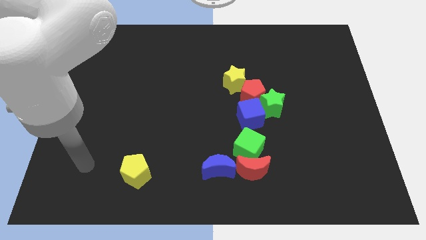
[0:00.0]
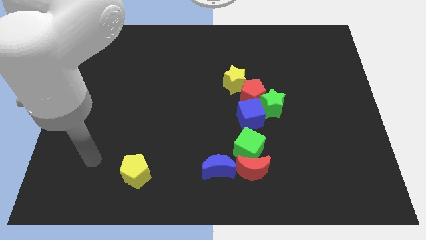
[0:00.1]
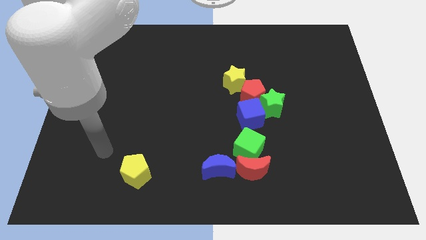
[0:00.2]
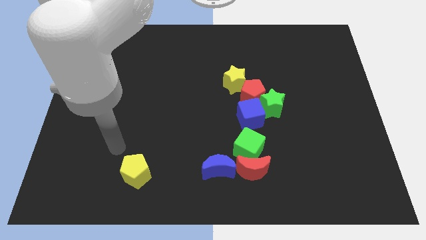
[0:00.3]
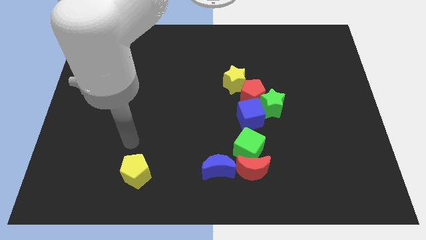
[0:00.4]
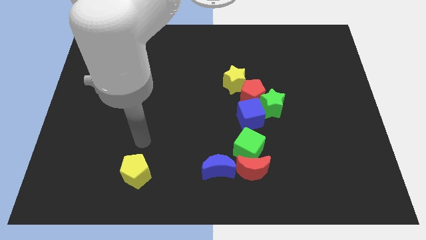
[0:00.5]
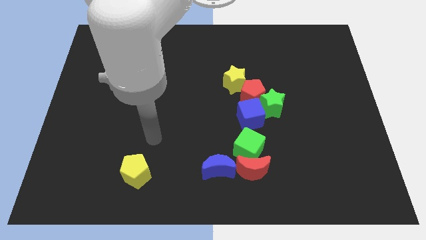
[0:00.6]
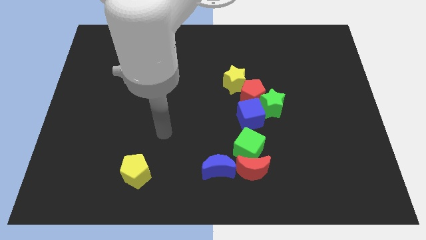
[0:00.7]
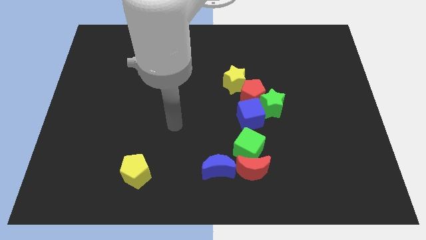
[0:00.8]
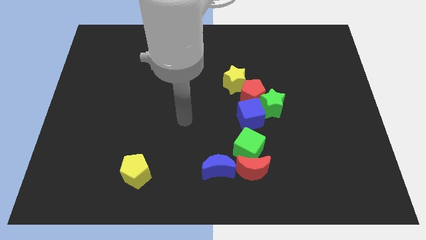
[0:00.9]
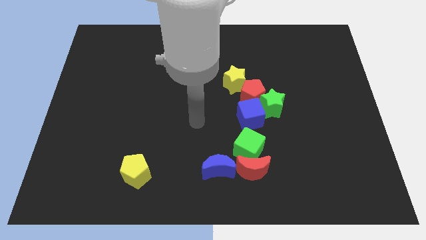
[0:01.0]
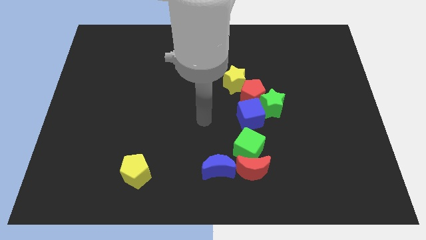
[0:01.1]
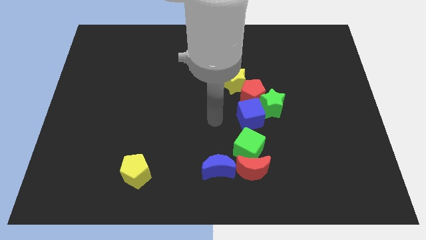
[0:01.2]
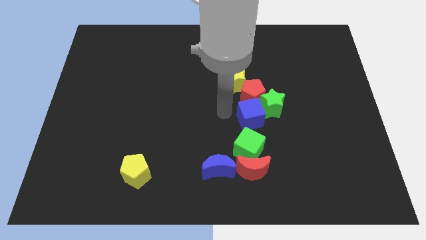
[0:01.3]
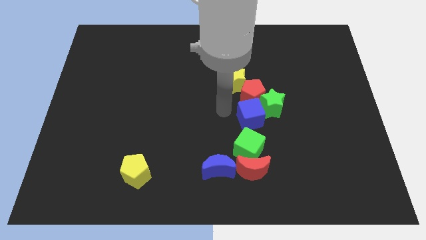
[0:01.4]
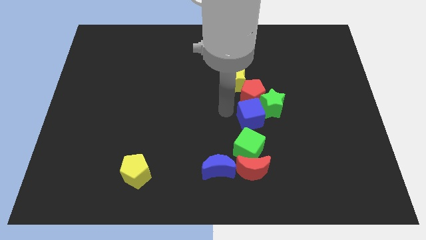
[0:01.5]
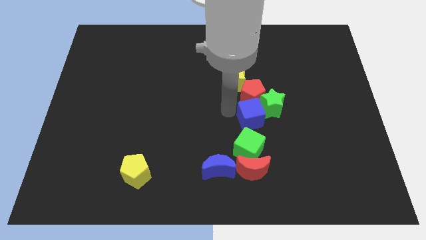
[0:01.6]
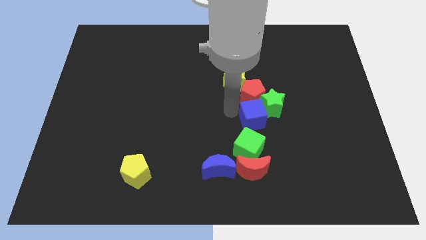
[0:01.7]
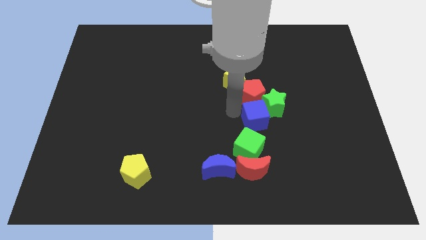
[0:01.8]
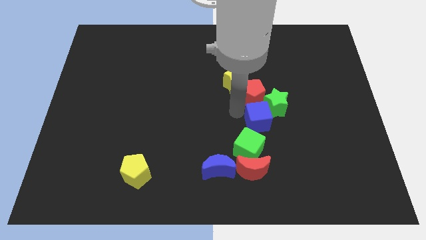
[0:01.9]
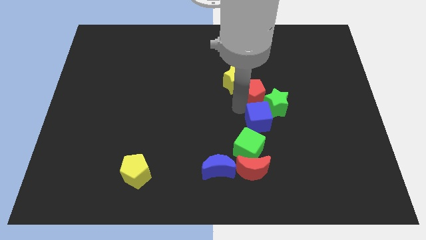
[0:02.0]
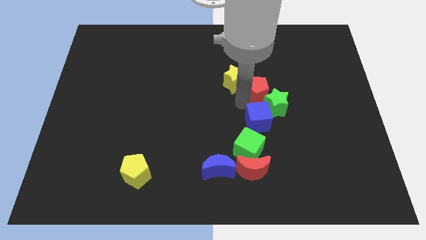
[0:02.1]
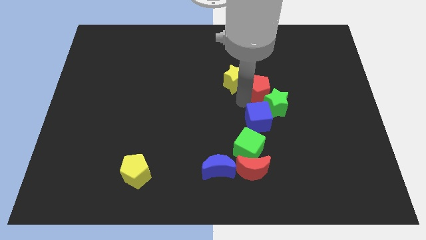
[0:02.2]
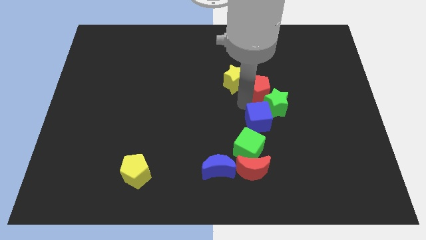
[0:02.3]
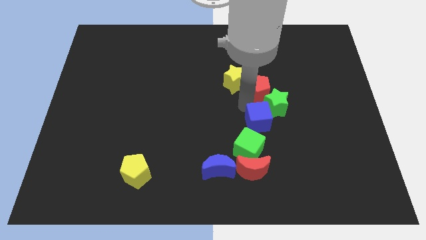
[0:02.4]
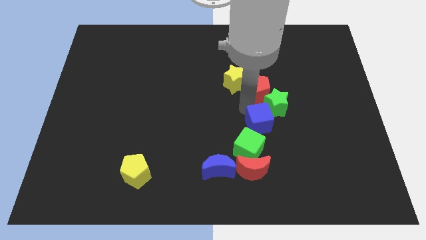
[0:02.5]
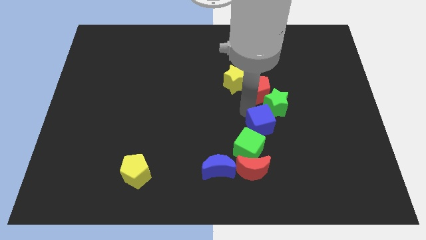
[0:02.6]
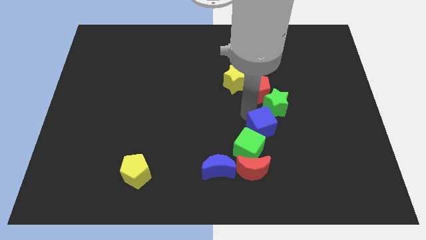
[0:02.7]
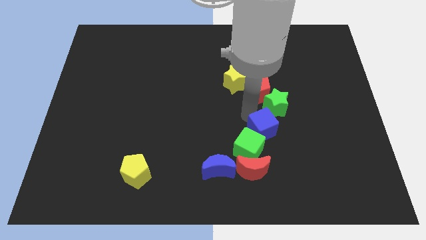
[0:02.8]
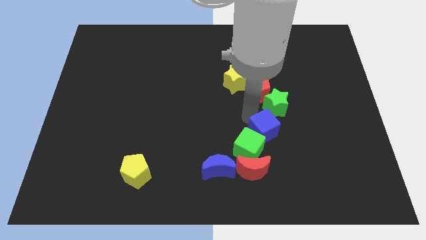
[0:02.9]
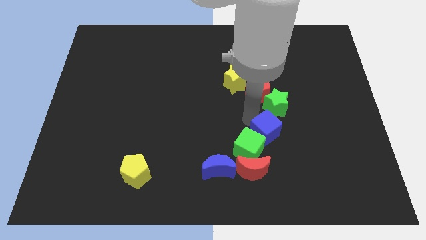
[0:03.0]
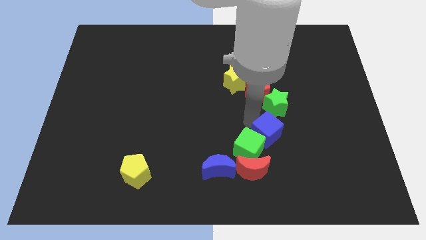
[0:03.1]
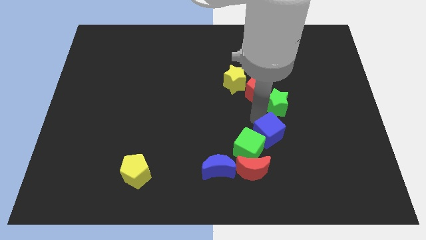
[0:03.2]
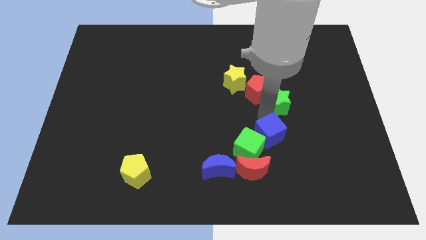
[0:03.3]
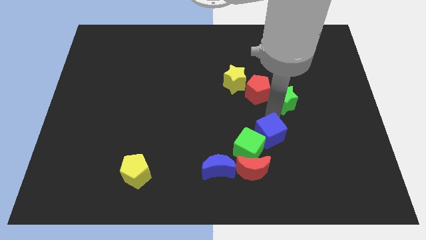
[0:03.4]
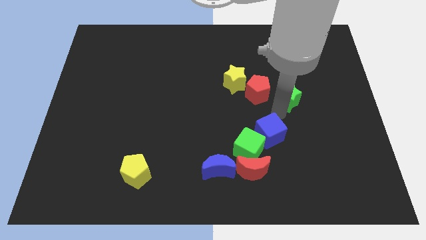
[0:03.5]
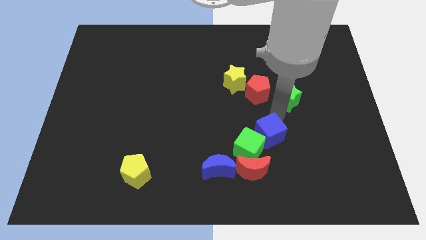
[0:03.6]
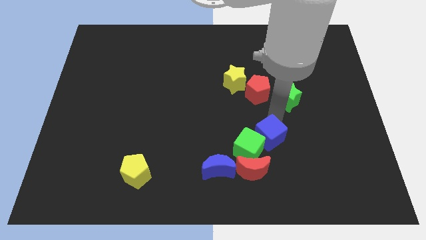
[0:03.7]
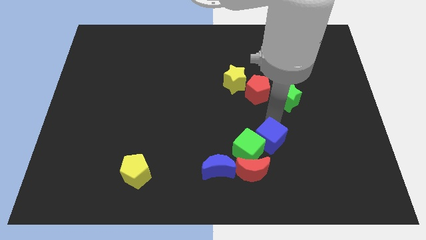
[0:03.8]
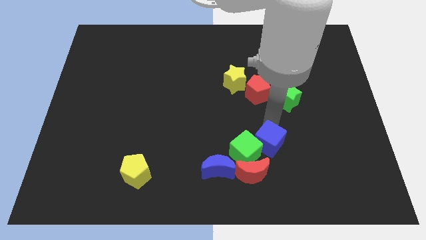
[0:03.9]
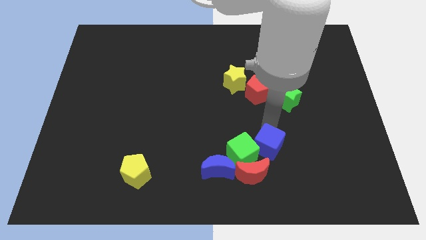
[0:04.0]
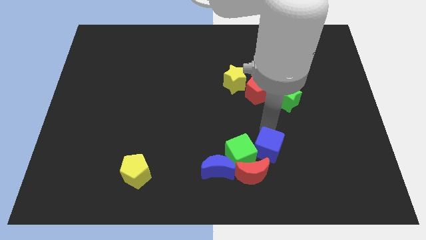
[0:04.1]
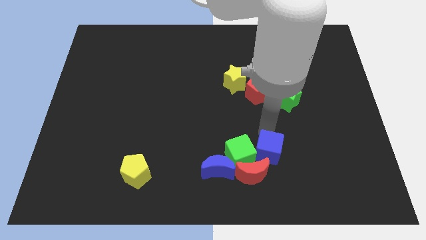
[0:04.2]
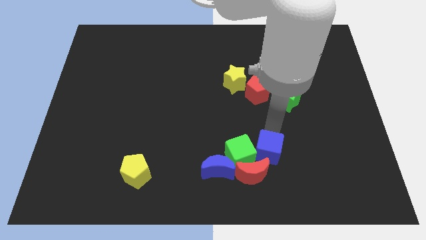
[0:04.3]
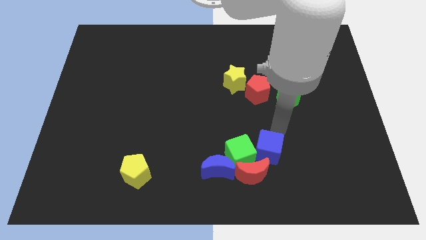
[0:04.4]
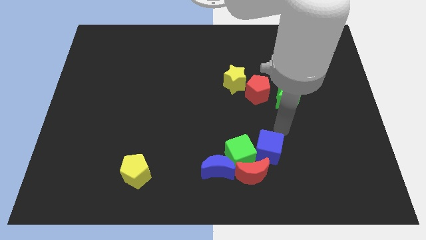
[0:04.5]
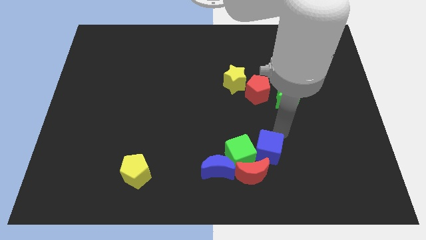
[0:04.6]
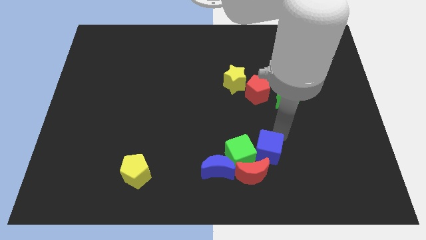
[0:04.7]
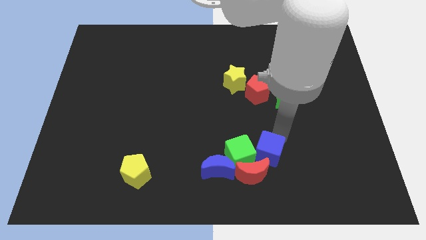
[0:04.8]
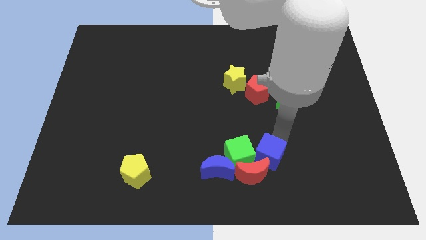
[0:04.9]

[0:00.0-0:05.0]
move the blue cube to the red moon

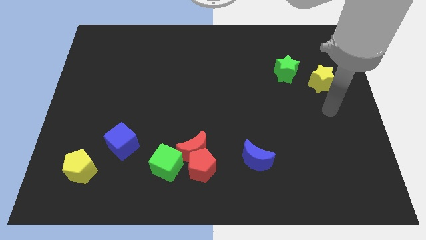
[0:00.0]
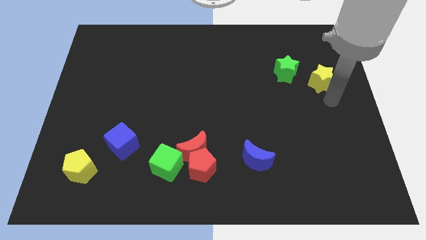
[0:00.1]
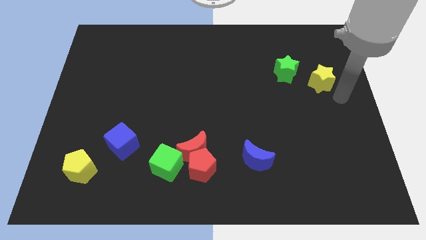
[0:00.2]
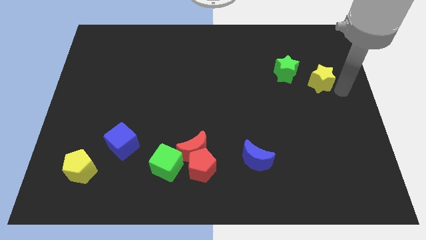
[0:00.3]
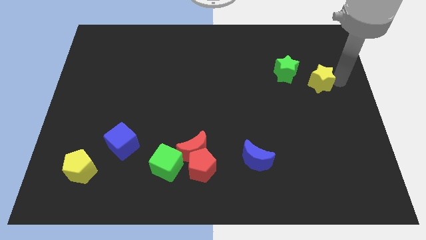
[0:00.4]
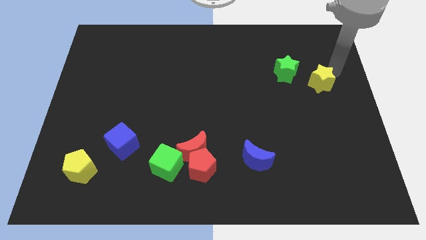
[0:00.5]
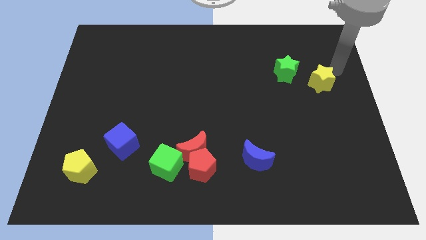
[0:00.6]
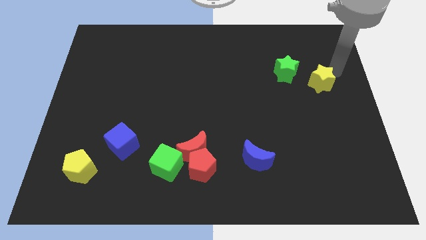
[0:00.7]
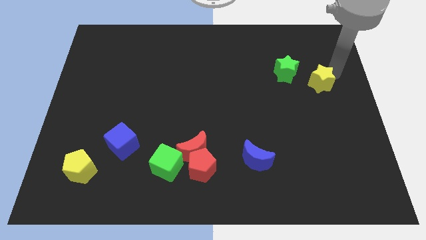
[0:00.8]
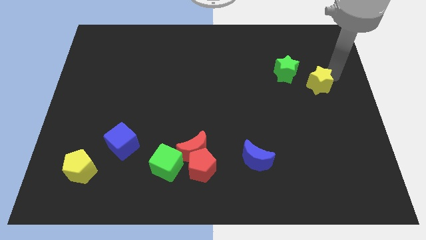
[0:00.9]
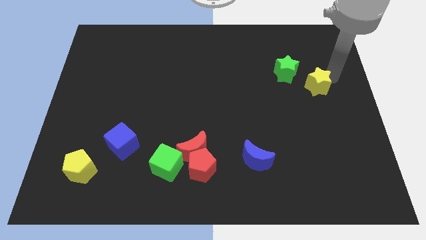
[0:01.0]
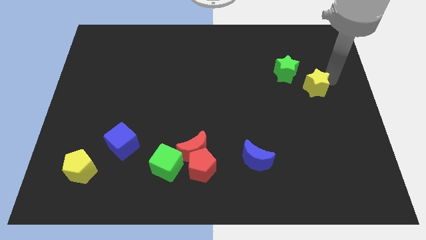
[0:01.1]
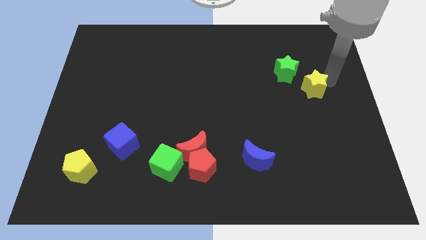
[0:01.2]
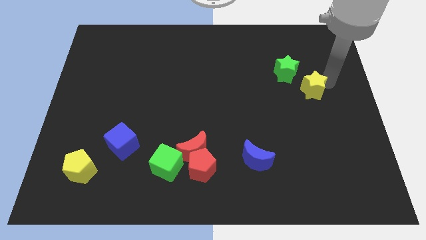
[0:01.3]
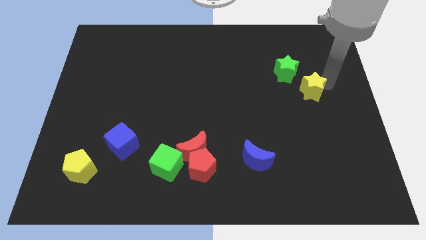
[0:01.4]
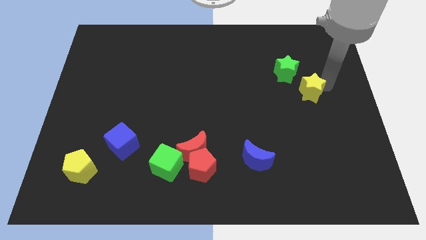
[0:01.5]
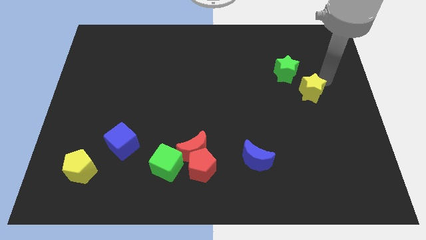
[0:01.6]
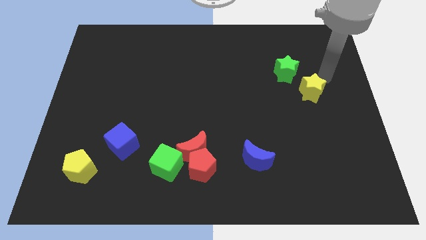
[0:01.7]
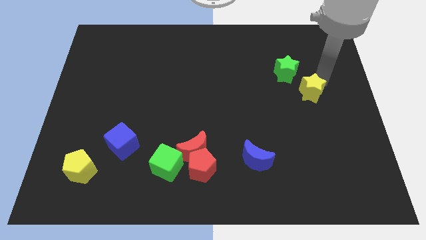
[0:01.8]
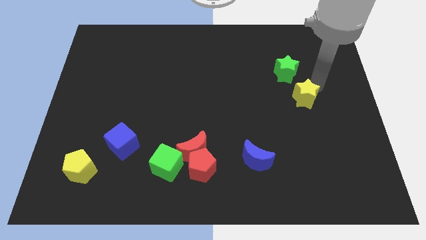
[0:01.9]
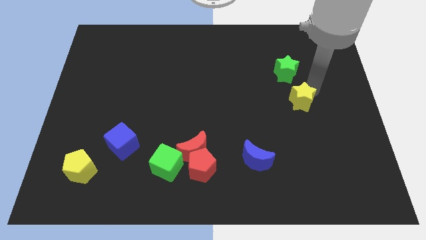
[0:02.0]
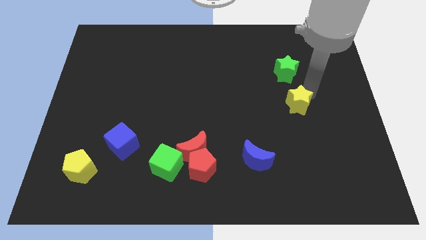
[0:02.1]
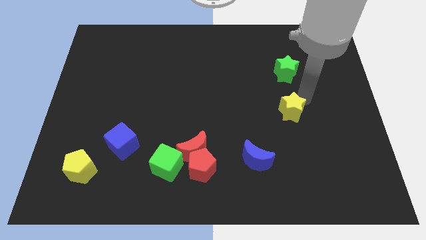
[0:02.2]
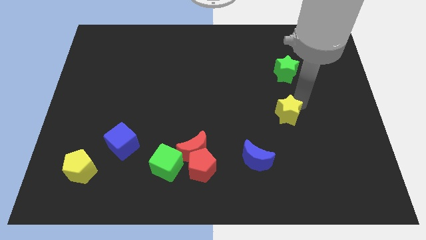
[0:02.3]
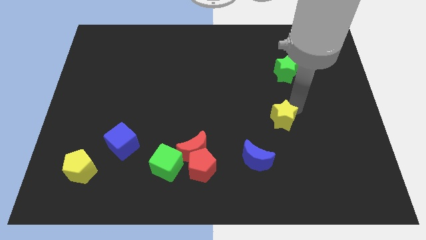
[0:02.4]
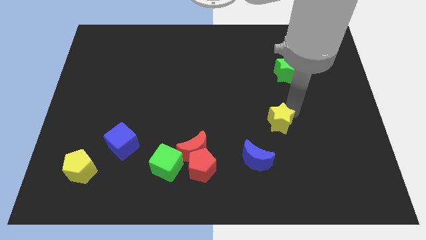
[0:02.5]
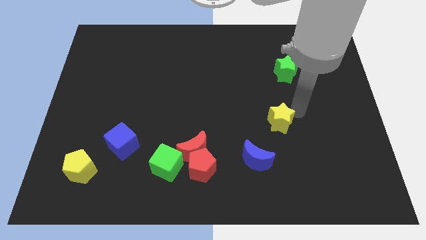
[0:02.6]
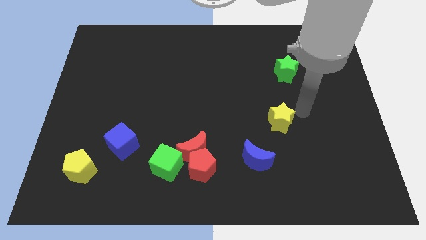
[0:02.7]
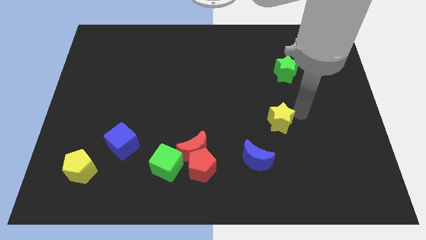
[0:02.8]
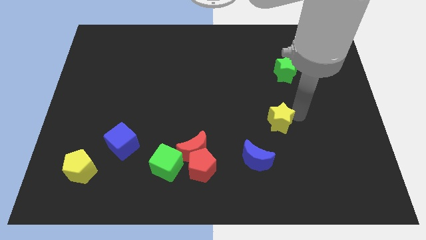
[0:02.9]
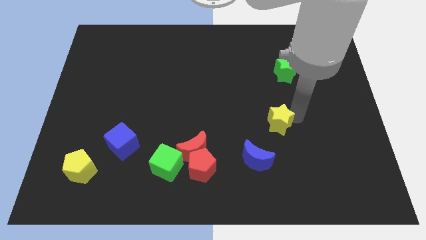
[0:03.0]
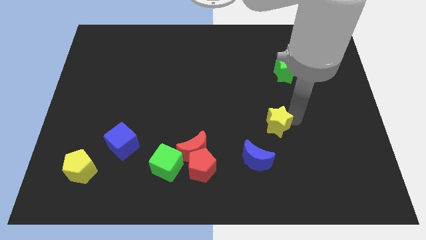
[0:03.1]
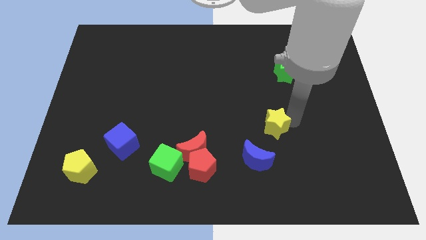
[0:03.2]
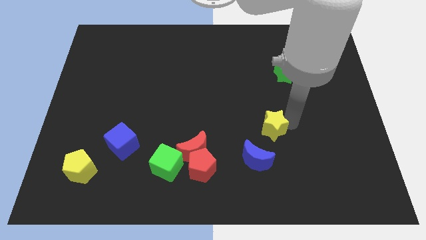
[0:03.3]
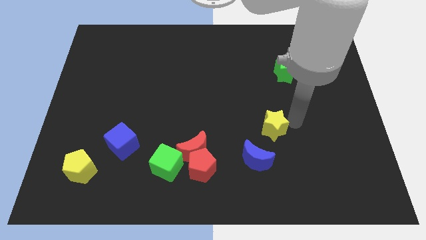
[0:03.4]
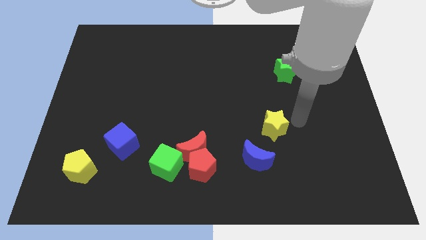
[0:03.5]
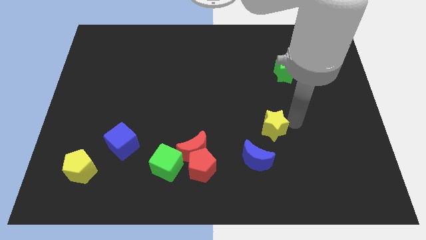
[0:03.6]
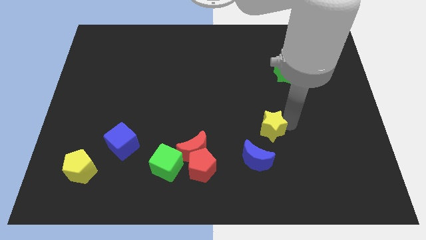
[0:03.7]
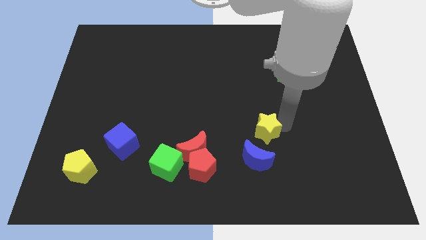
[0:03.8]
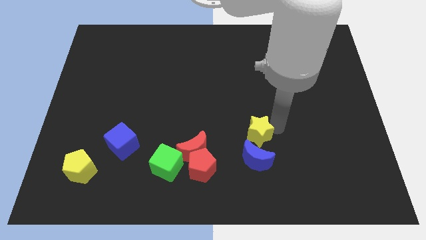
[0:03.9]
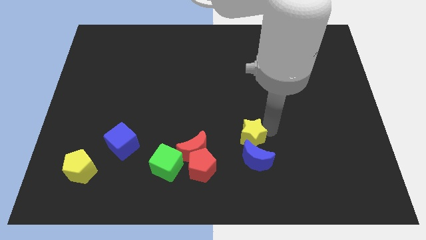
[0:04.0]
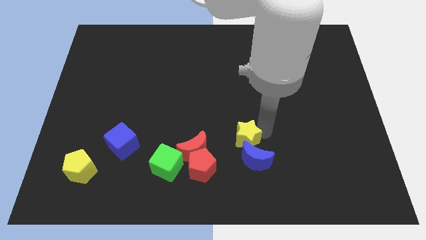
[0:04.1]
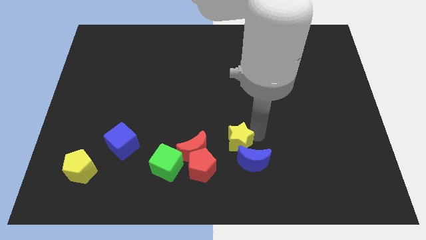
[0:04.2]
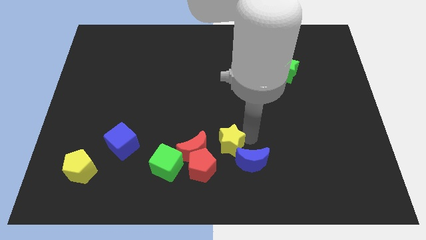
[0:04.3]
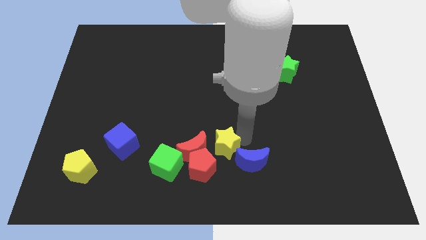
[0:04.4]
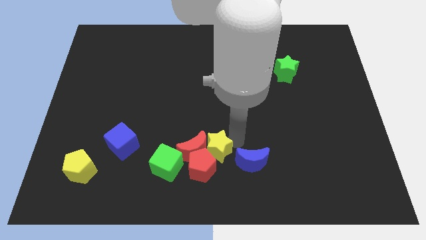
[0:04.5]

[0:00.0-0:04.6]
push the yellow star to the red pentagon
